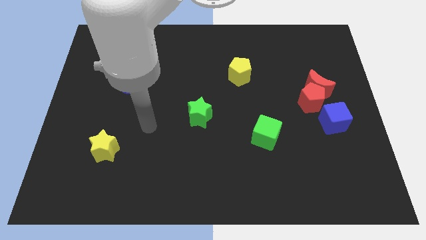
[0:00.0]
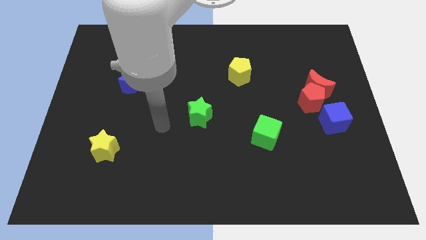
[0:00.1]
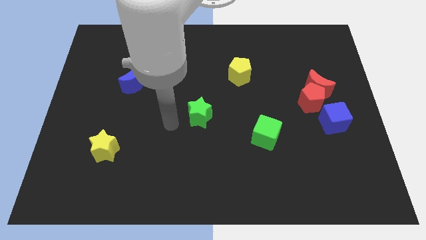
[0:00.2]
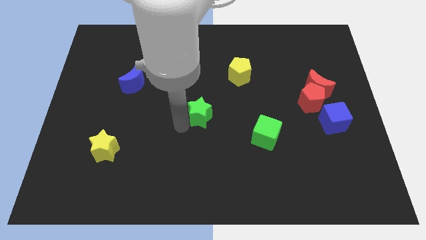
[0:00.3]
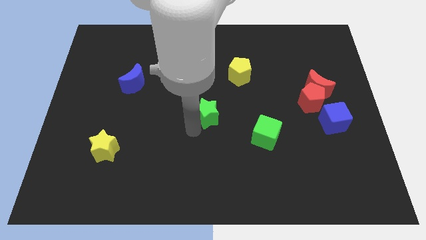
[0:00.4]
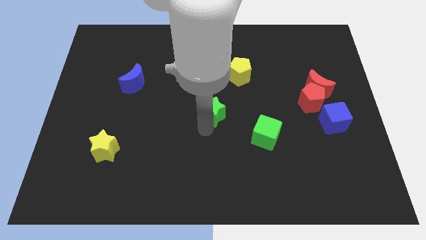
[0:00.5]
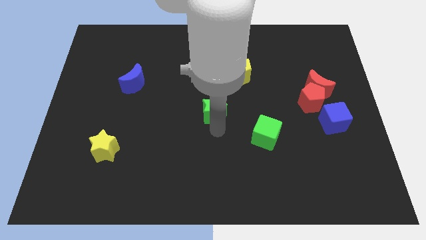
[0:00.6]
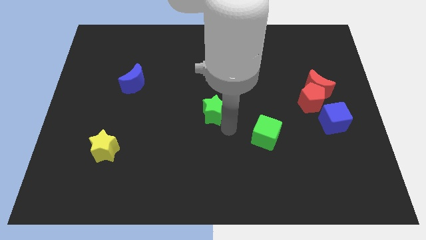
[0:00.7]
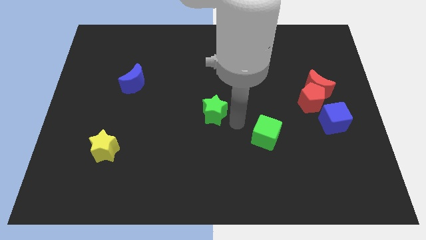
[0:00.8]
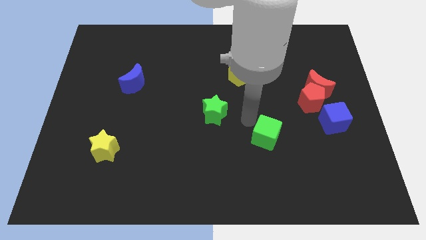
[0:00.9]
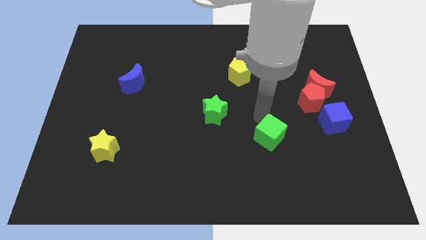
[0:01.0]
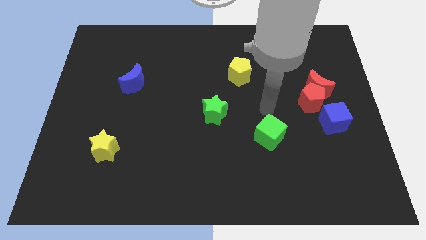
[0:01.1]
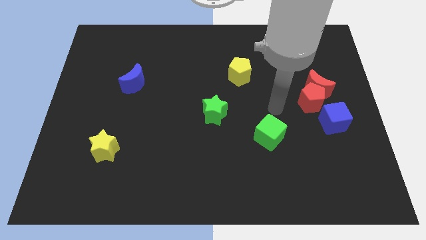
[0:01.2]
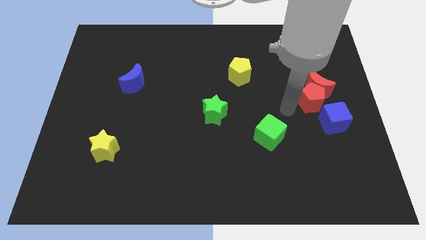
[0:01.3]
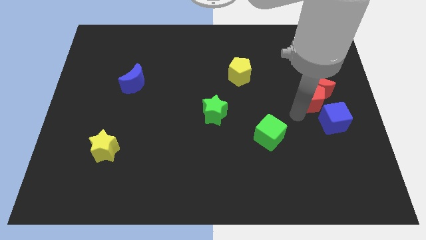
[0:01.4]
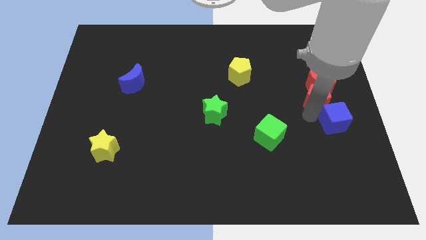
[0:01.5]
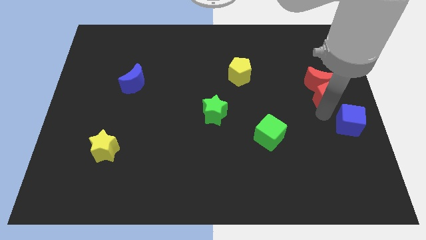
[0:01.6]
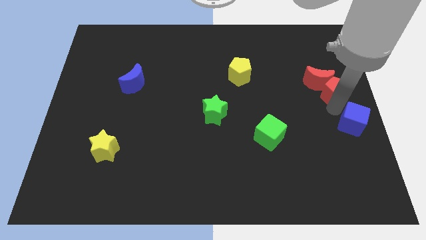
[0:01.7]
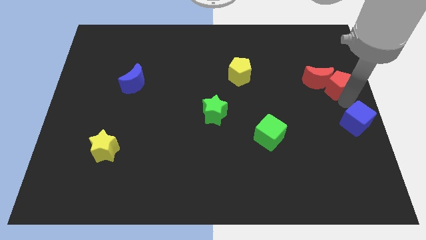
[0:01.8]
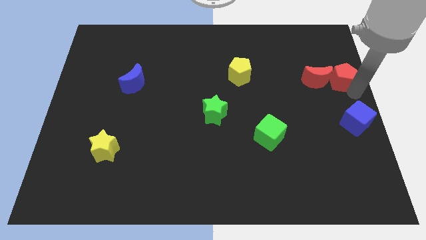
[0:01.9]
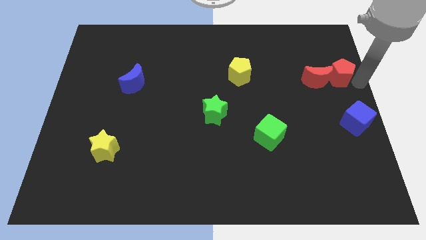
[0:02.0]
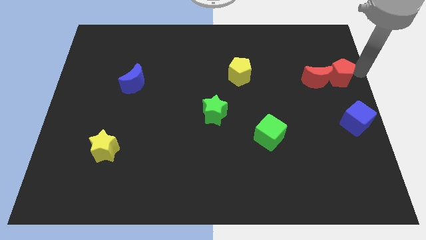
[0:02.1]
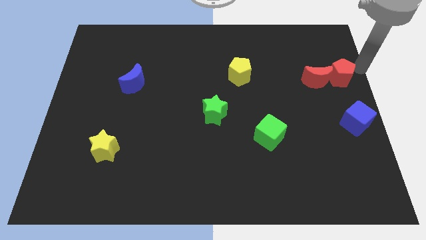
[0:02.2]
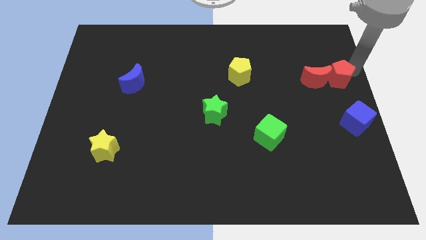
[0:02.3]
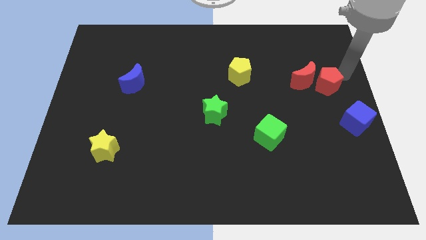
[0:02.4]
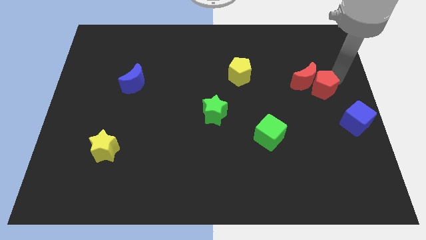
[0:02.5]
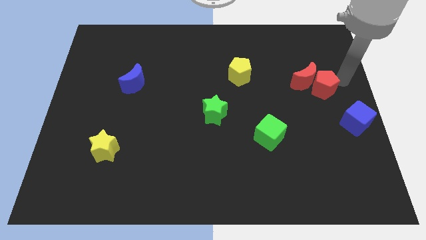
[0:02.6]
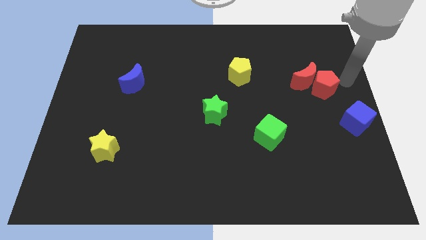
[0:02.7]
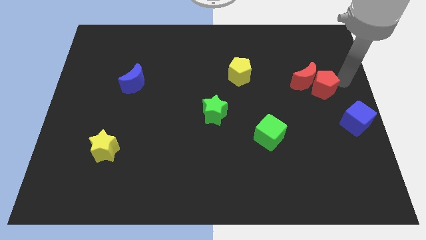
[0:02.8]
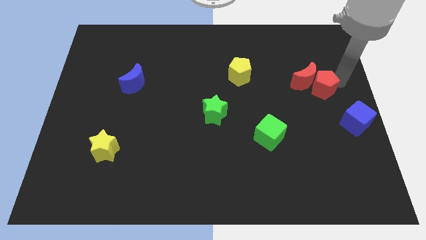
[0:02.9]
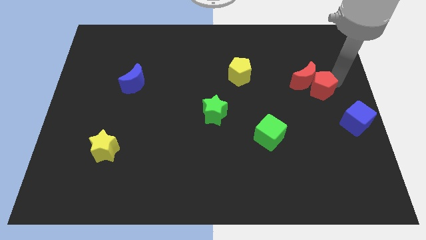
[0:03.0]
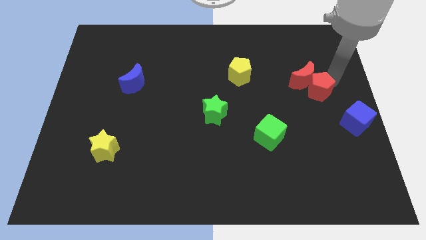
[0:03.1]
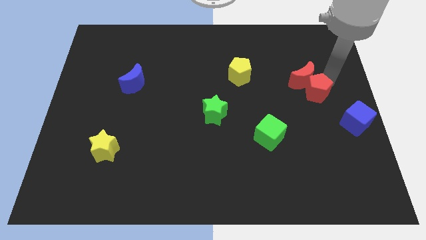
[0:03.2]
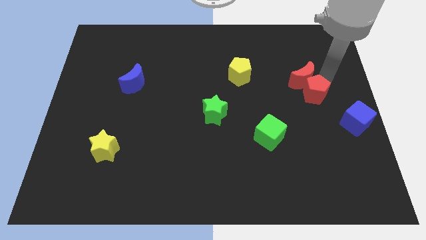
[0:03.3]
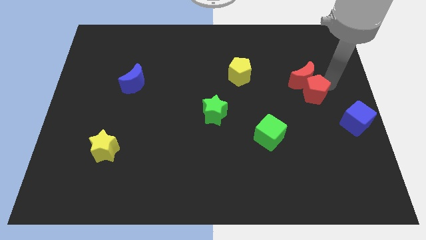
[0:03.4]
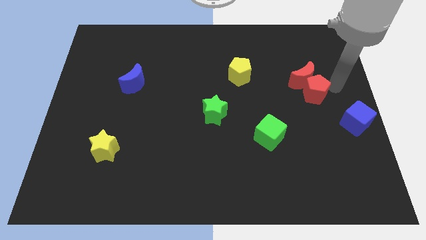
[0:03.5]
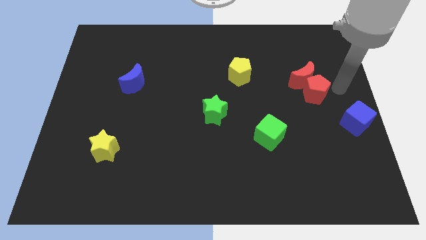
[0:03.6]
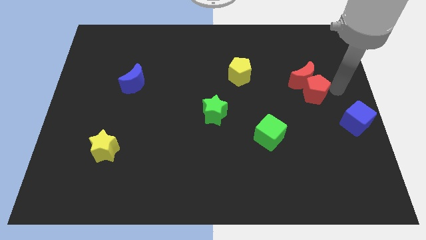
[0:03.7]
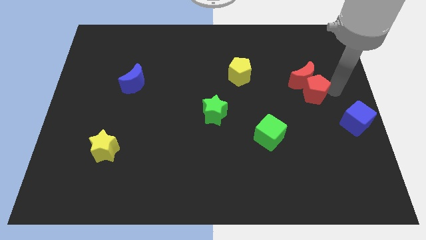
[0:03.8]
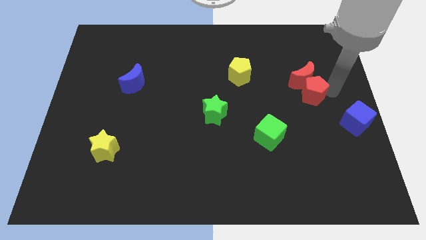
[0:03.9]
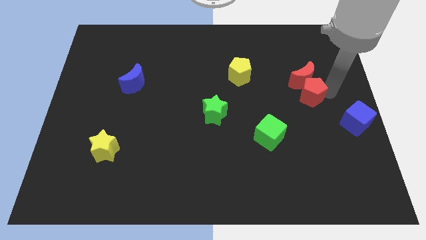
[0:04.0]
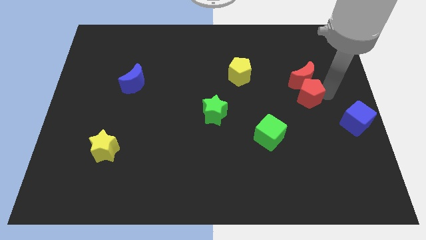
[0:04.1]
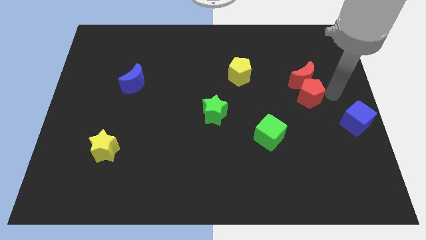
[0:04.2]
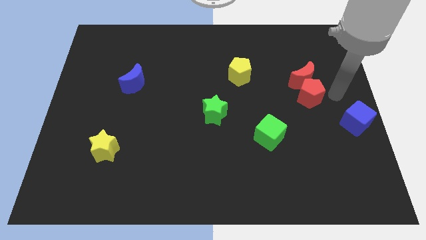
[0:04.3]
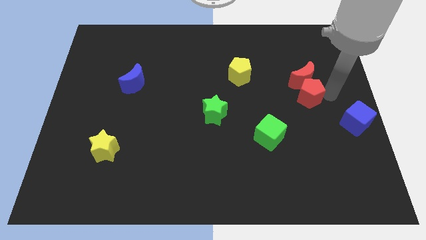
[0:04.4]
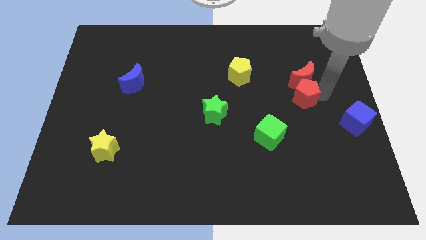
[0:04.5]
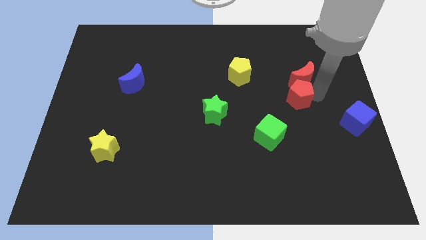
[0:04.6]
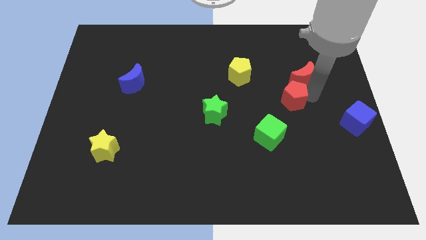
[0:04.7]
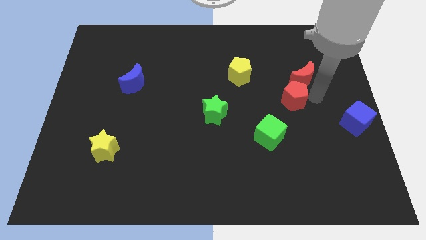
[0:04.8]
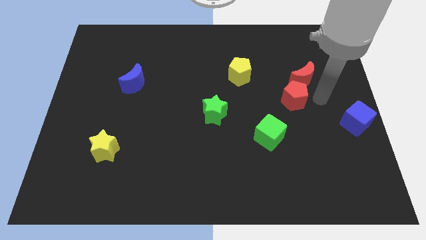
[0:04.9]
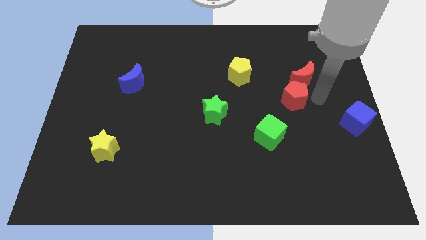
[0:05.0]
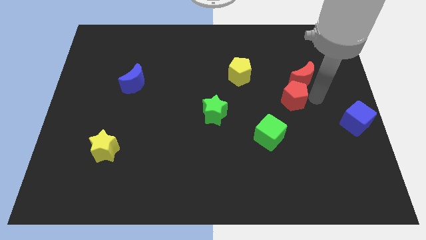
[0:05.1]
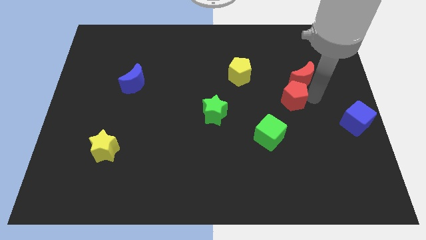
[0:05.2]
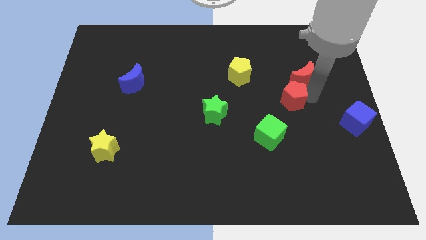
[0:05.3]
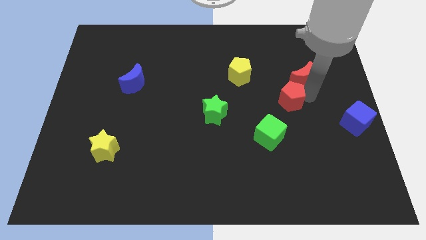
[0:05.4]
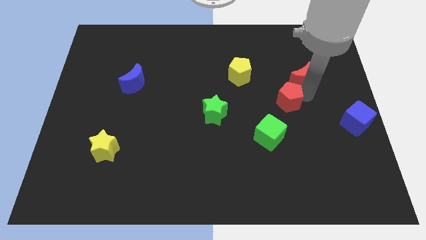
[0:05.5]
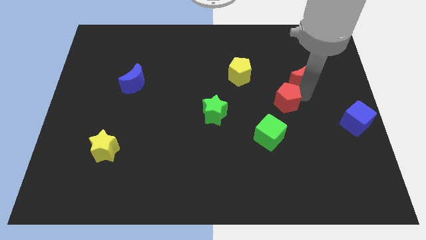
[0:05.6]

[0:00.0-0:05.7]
separate the red pentagon from the red moon and blue cube

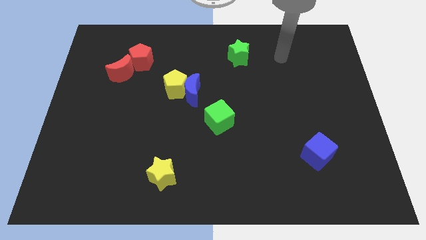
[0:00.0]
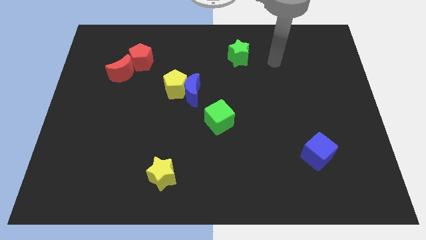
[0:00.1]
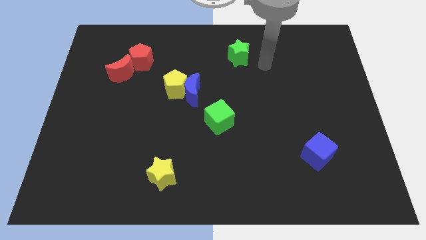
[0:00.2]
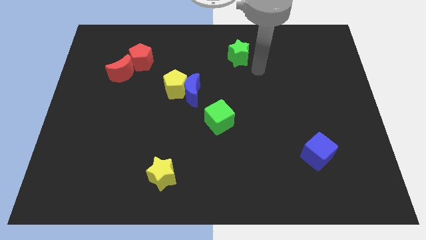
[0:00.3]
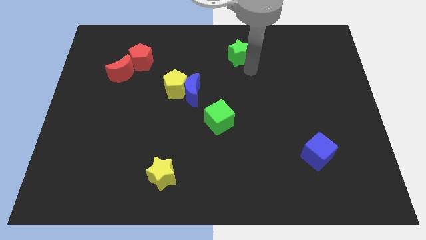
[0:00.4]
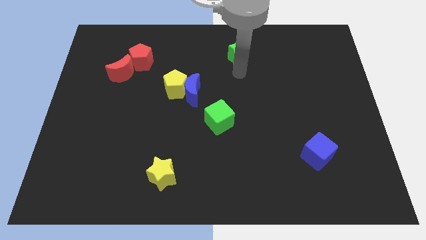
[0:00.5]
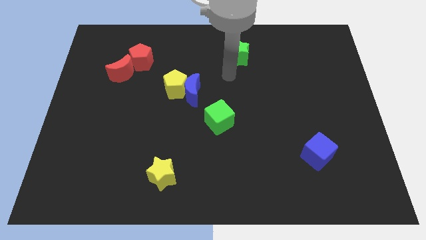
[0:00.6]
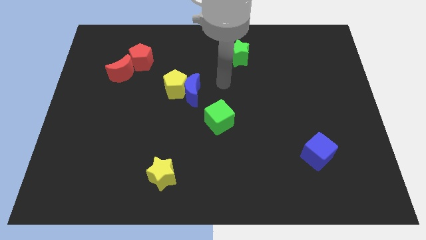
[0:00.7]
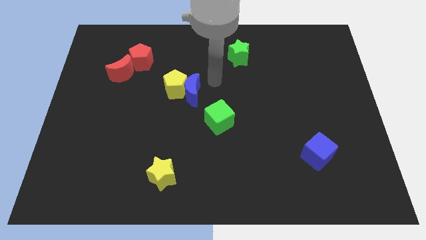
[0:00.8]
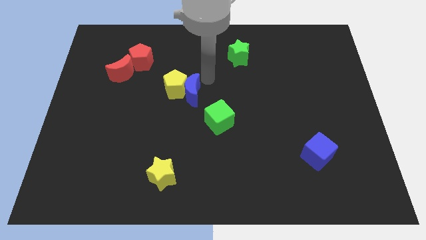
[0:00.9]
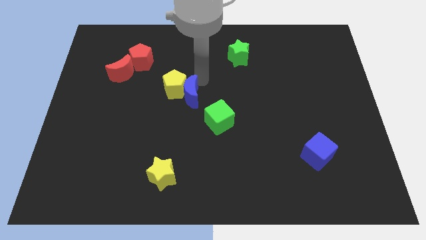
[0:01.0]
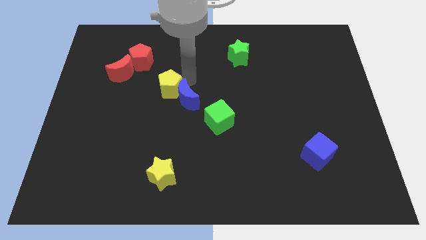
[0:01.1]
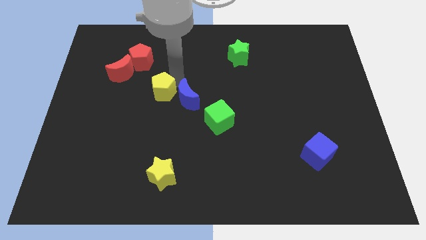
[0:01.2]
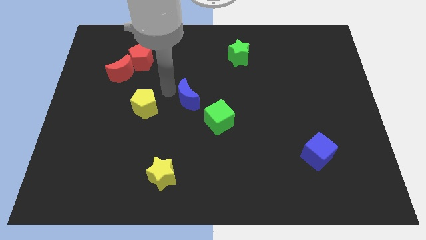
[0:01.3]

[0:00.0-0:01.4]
separate the blue moon from the yellow pentagon

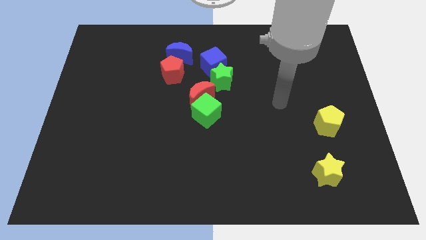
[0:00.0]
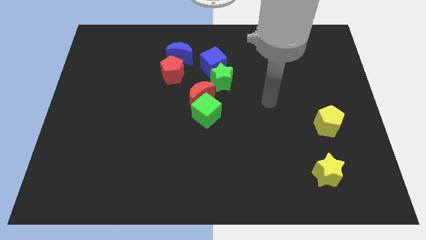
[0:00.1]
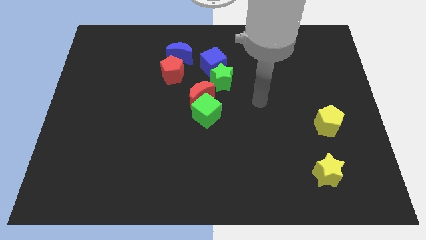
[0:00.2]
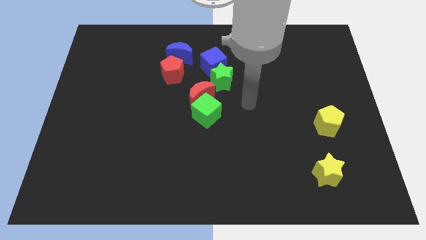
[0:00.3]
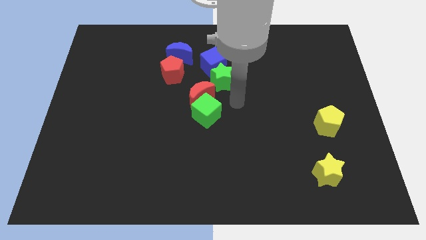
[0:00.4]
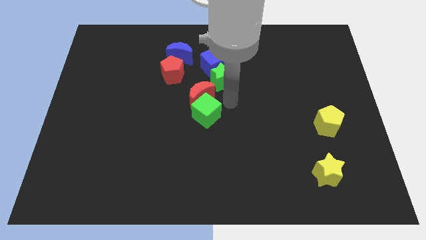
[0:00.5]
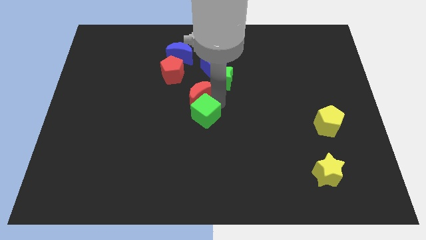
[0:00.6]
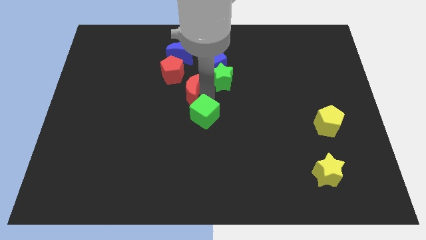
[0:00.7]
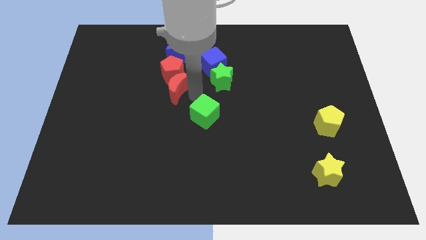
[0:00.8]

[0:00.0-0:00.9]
separate the green cube from the red moon

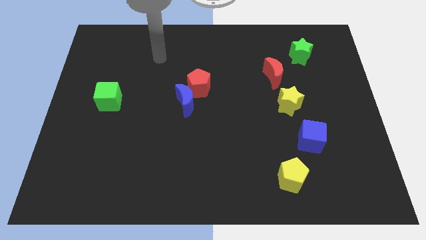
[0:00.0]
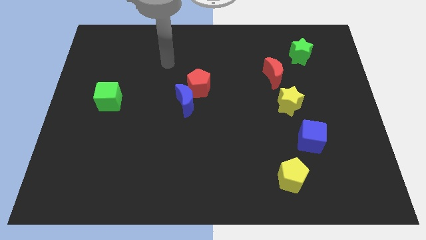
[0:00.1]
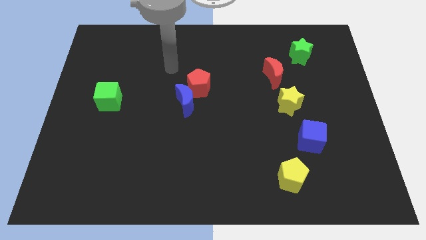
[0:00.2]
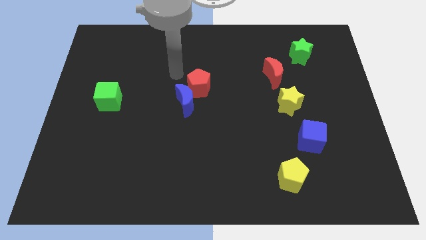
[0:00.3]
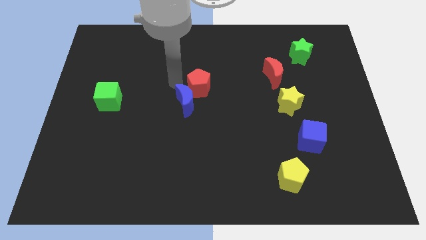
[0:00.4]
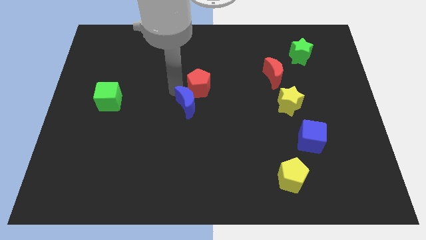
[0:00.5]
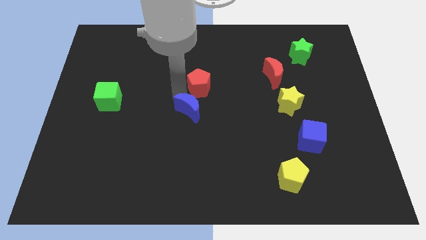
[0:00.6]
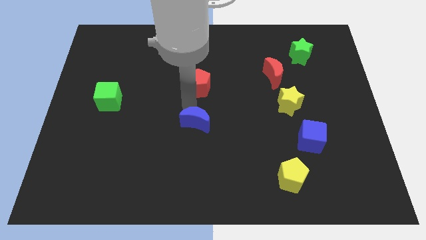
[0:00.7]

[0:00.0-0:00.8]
pull the red pentagon apart from the blue moon

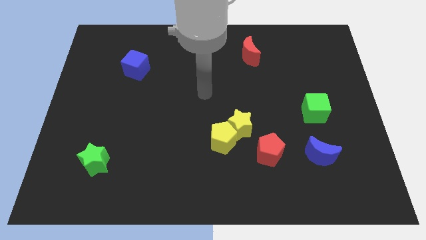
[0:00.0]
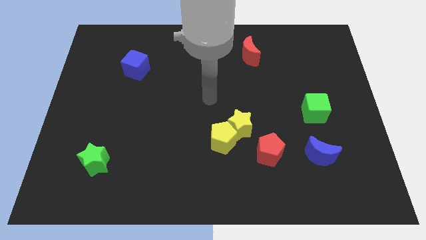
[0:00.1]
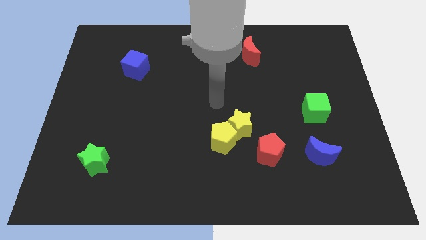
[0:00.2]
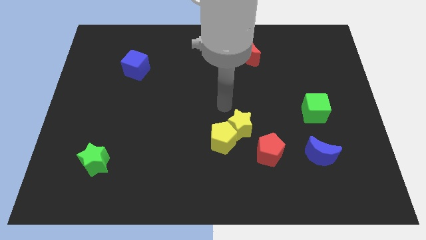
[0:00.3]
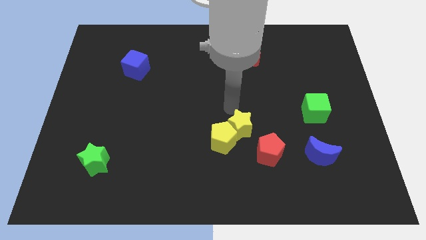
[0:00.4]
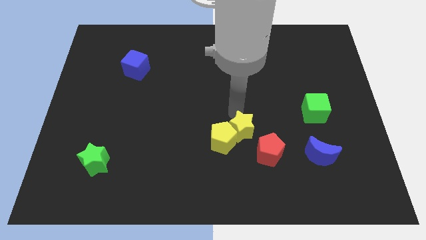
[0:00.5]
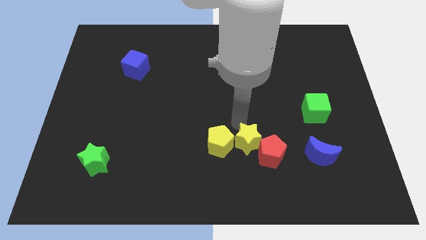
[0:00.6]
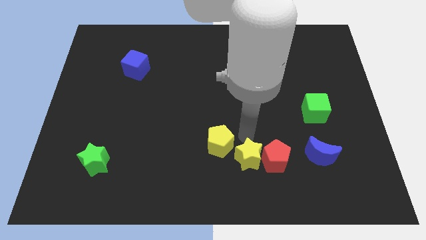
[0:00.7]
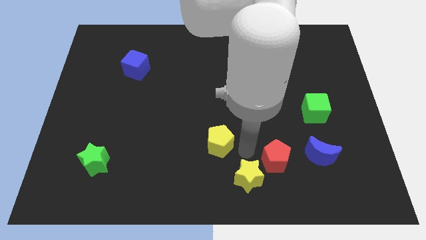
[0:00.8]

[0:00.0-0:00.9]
move the yellow pentagon away from the yellow star
